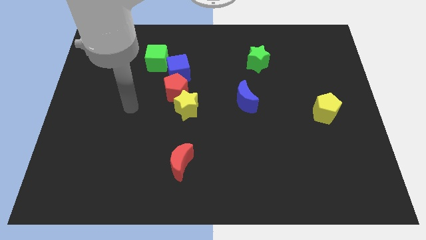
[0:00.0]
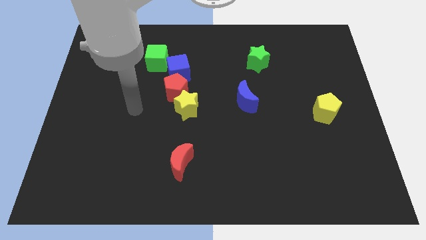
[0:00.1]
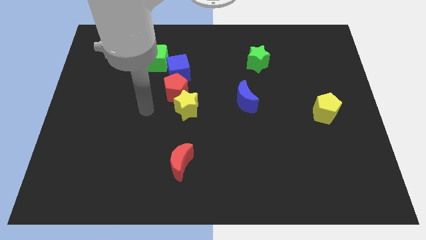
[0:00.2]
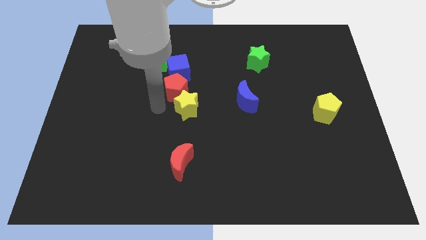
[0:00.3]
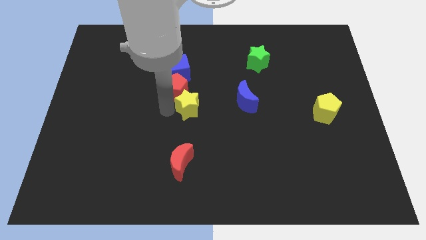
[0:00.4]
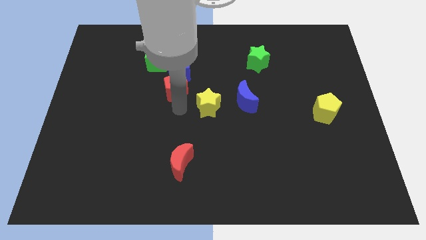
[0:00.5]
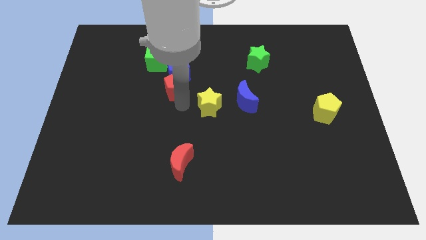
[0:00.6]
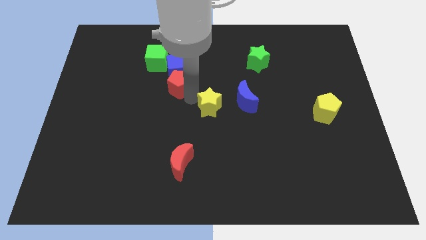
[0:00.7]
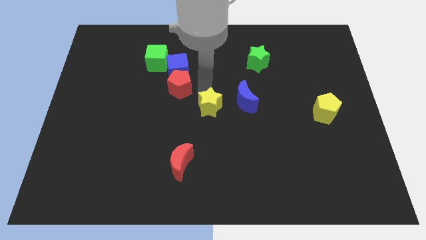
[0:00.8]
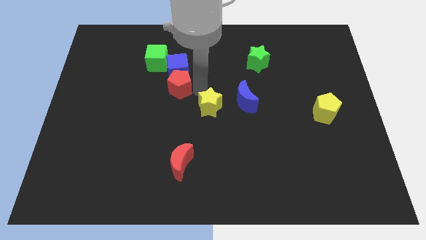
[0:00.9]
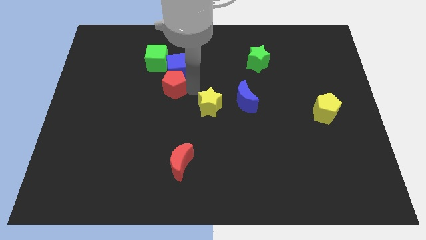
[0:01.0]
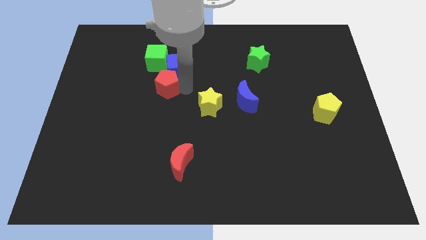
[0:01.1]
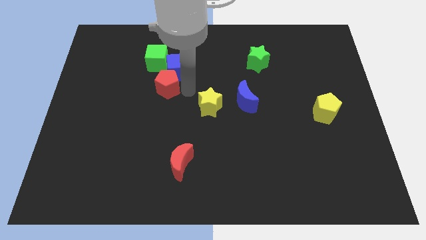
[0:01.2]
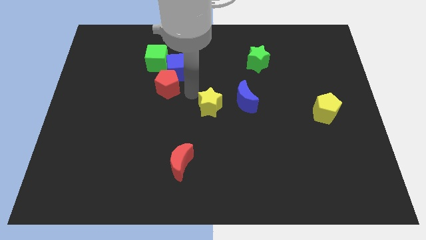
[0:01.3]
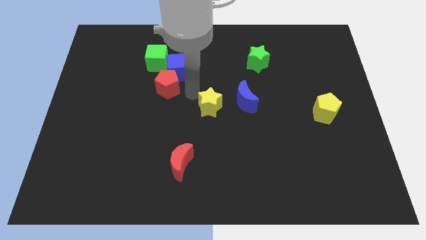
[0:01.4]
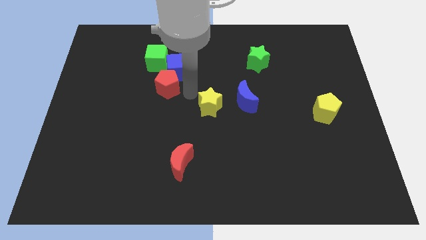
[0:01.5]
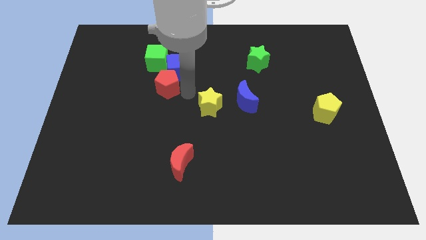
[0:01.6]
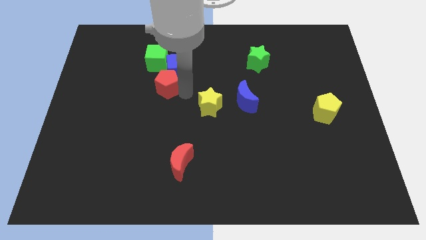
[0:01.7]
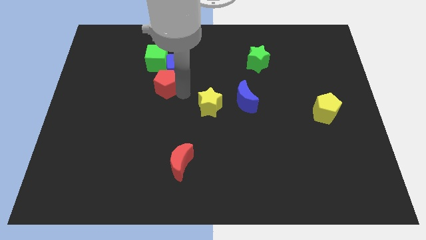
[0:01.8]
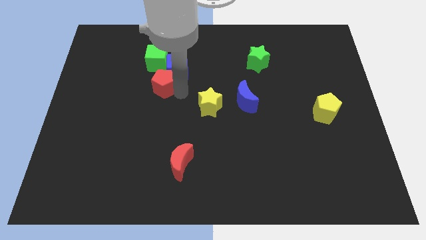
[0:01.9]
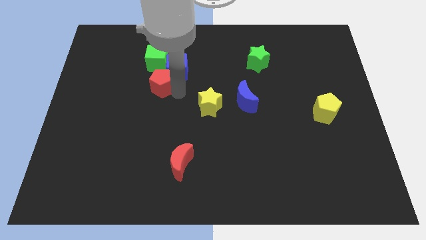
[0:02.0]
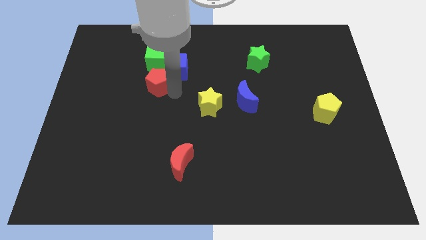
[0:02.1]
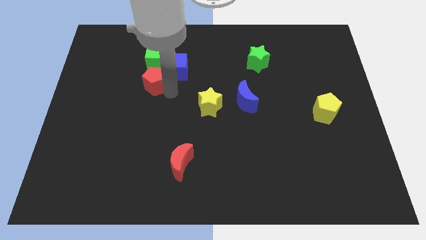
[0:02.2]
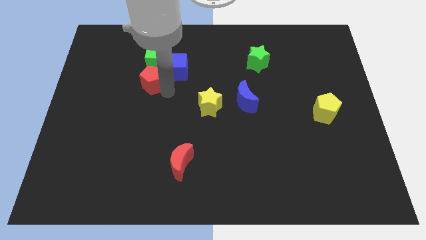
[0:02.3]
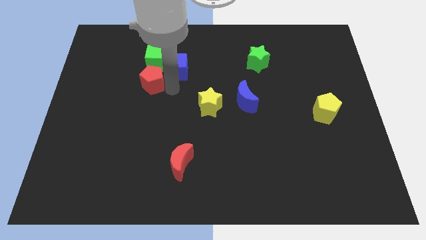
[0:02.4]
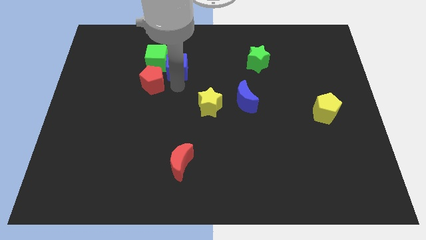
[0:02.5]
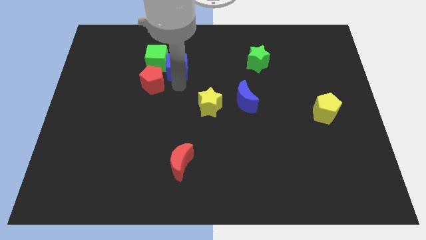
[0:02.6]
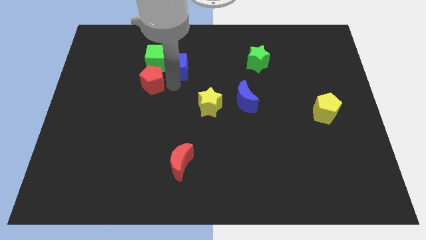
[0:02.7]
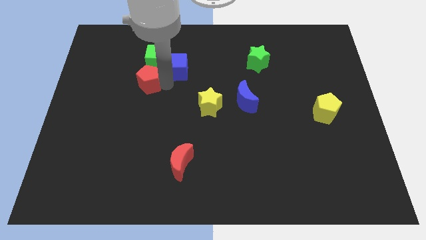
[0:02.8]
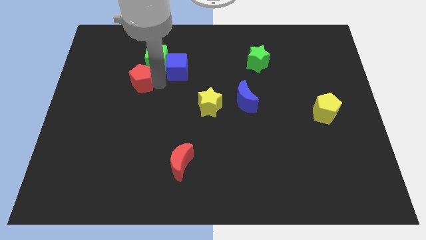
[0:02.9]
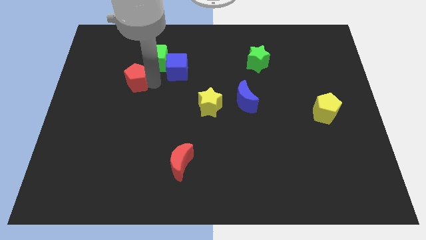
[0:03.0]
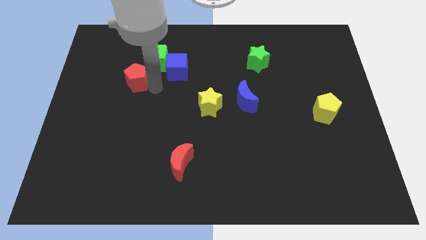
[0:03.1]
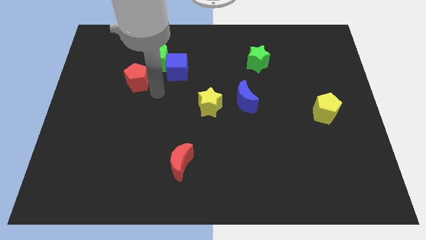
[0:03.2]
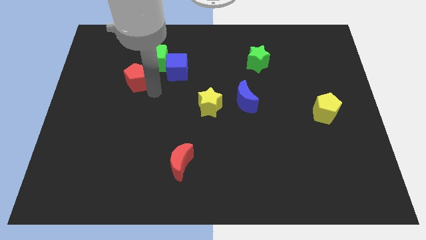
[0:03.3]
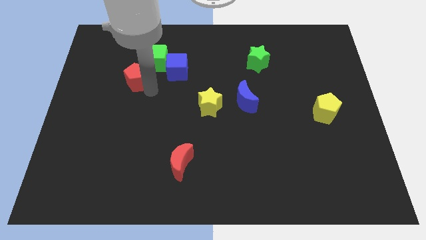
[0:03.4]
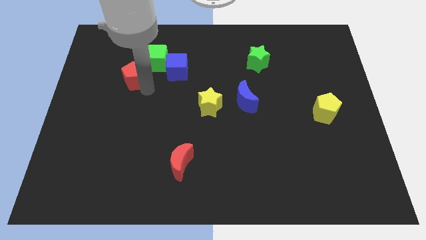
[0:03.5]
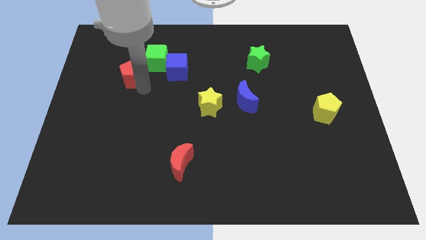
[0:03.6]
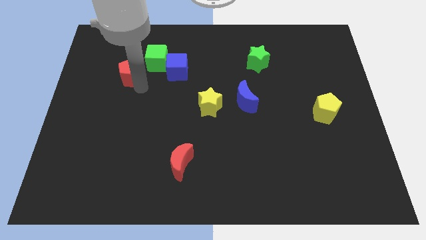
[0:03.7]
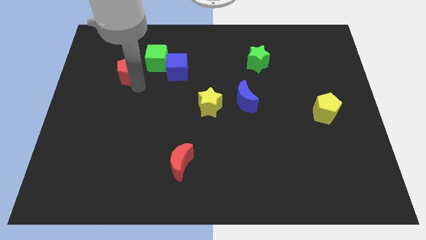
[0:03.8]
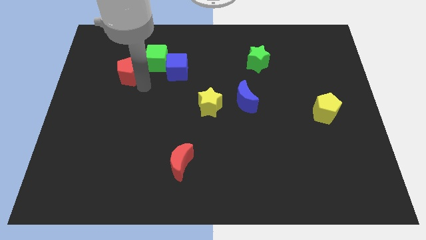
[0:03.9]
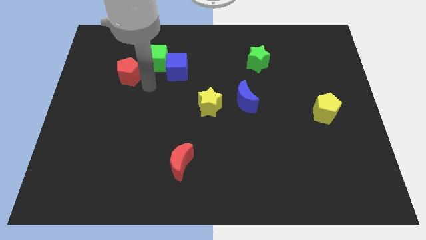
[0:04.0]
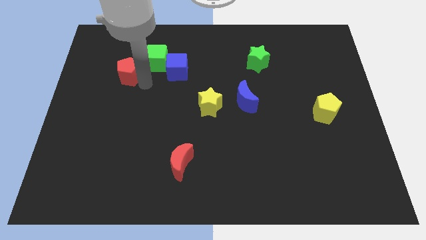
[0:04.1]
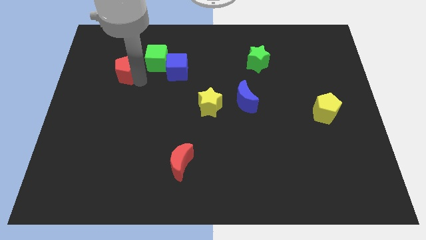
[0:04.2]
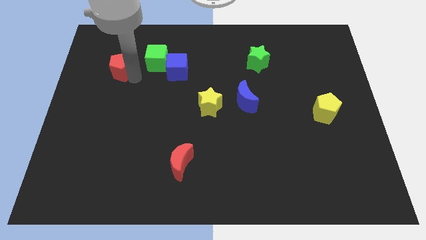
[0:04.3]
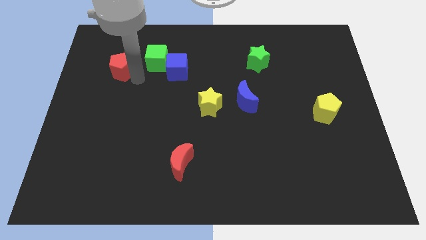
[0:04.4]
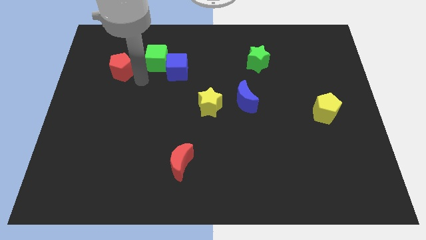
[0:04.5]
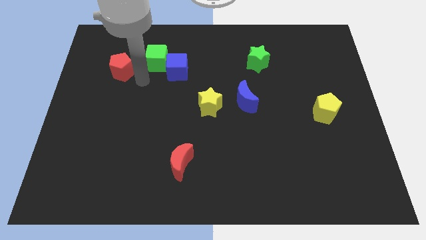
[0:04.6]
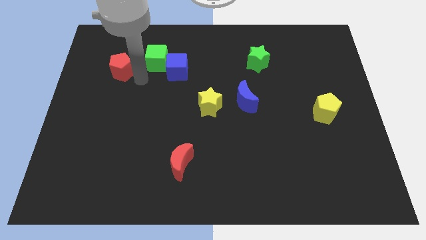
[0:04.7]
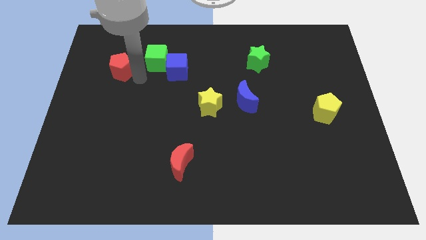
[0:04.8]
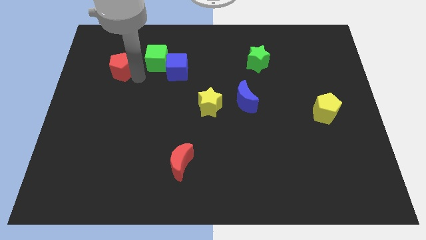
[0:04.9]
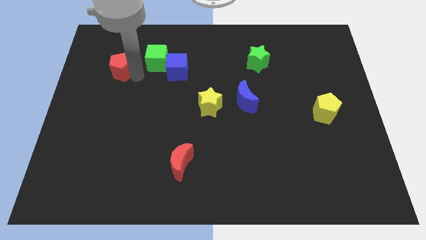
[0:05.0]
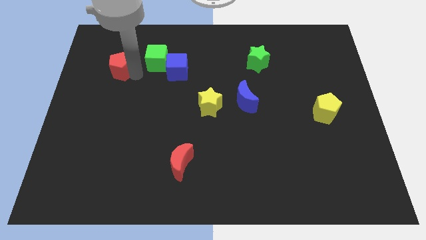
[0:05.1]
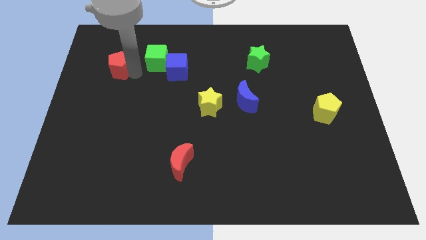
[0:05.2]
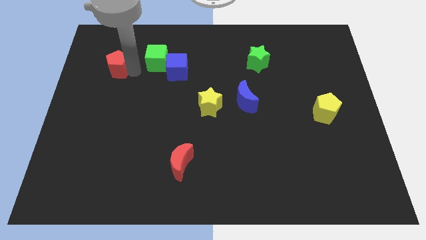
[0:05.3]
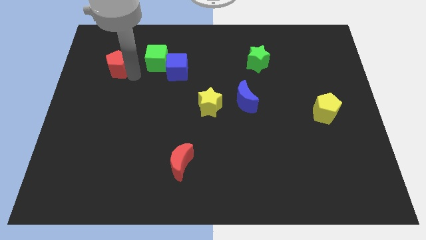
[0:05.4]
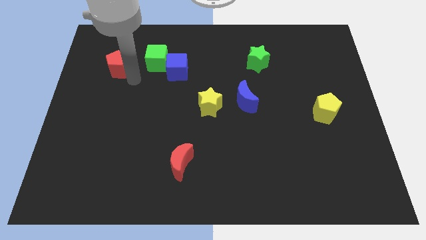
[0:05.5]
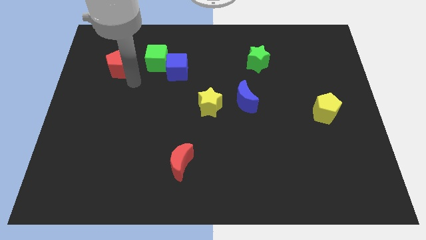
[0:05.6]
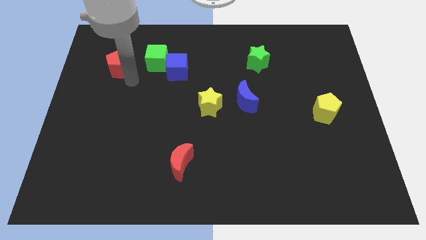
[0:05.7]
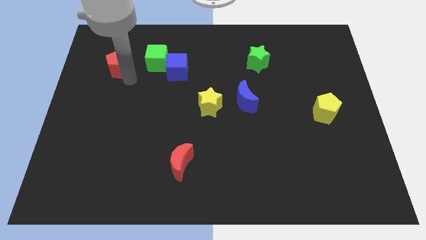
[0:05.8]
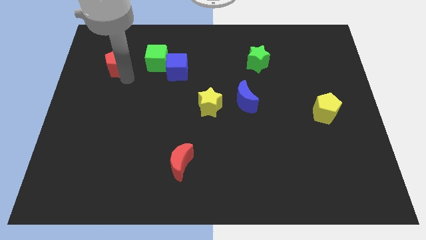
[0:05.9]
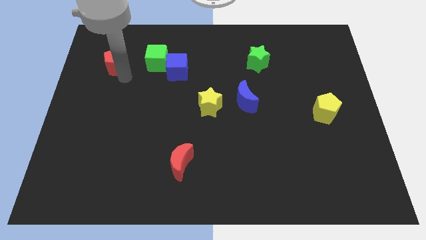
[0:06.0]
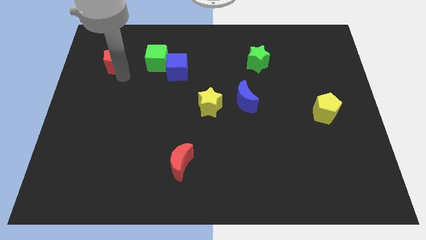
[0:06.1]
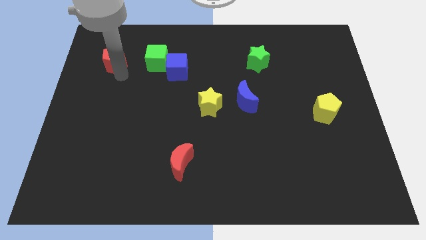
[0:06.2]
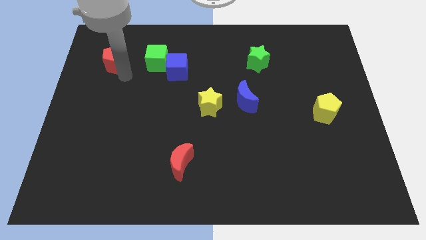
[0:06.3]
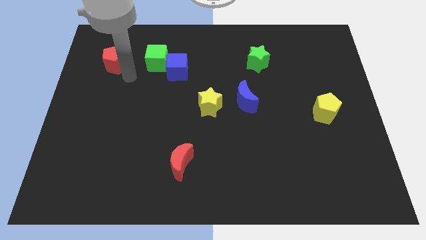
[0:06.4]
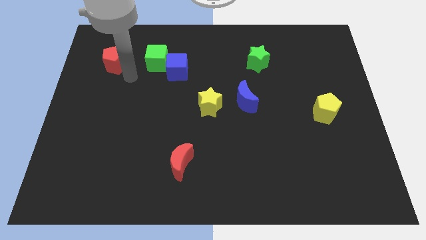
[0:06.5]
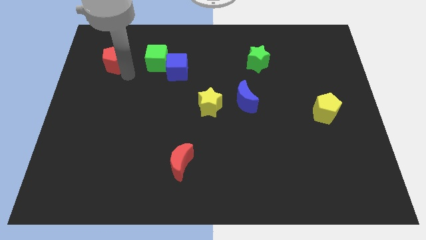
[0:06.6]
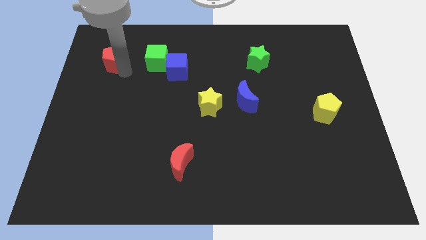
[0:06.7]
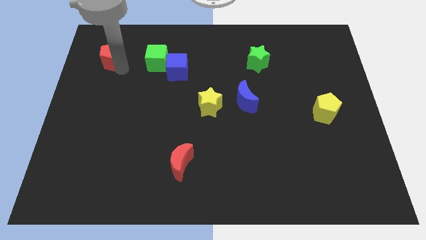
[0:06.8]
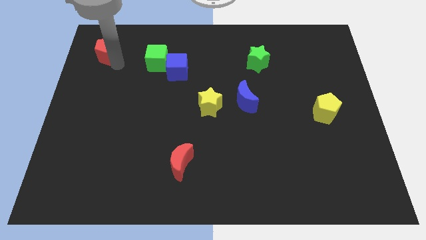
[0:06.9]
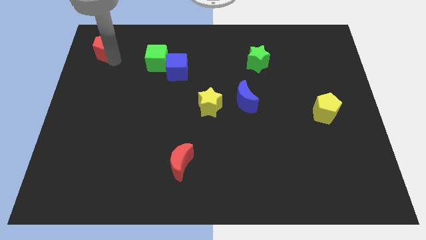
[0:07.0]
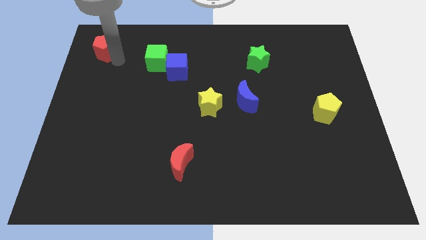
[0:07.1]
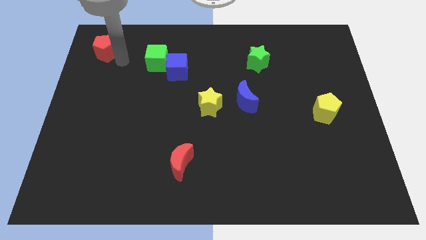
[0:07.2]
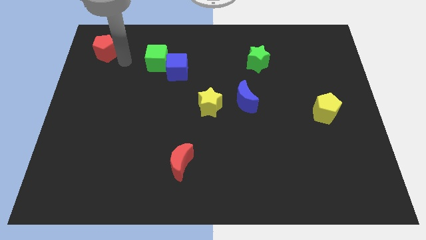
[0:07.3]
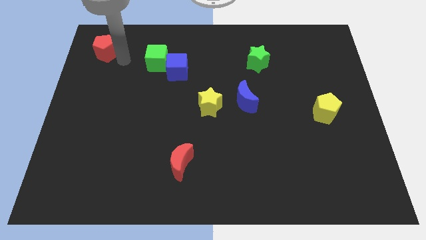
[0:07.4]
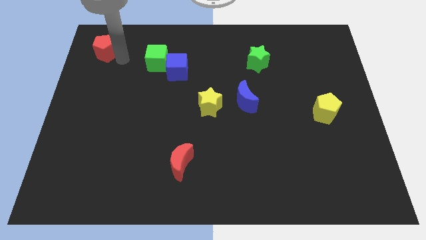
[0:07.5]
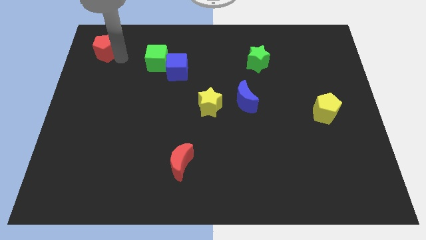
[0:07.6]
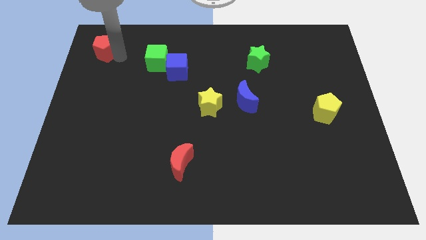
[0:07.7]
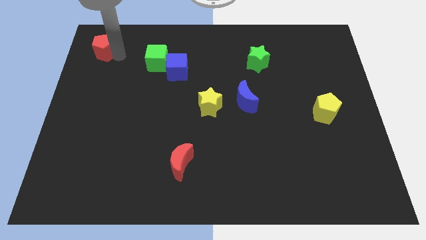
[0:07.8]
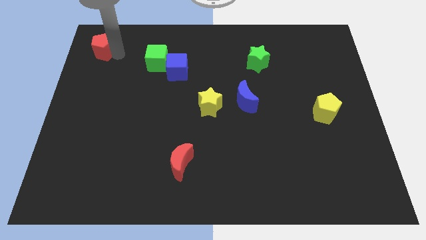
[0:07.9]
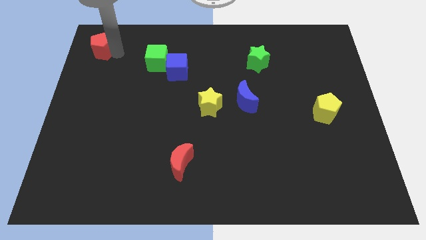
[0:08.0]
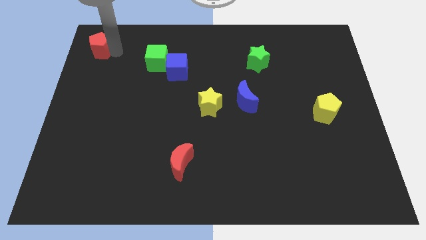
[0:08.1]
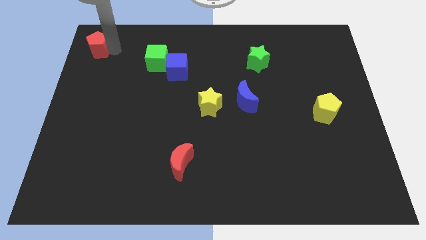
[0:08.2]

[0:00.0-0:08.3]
move the red pentagon to the upper left corner
